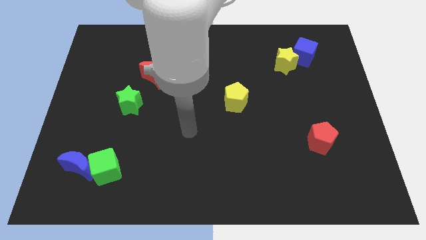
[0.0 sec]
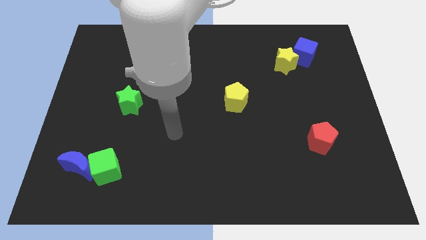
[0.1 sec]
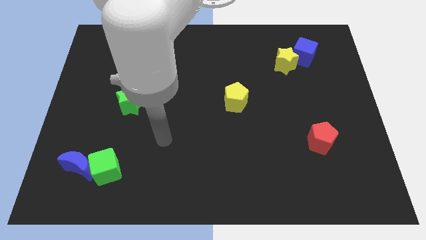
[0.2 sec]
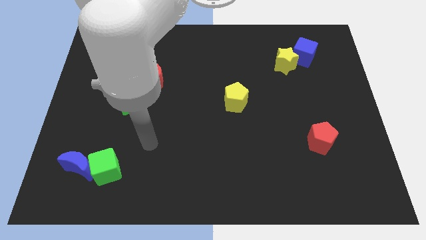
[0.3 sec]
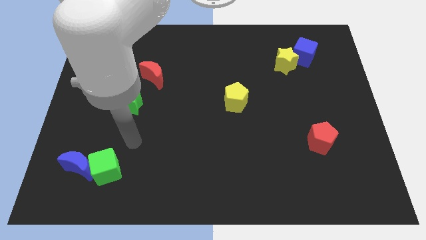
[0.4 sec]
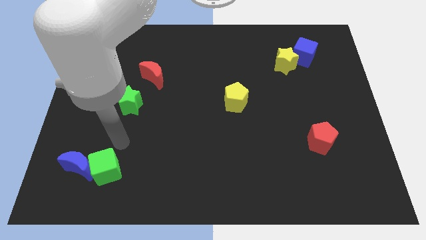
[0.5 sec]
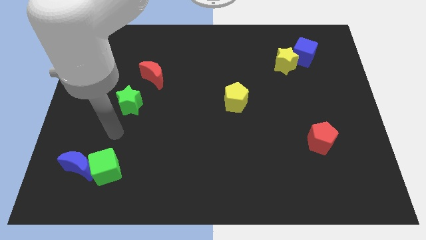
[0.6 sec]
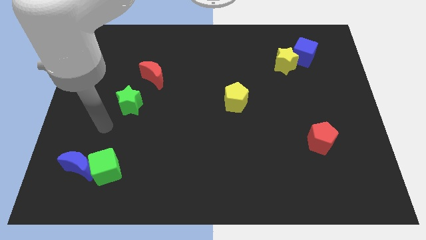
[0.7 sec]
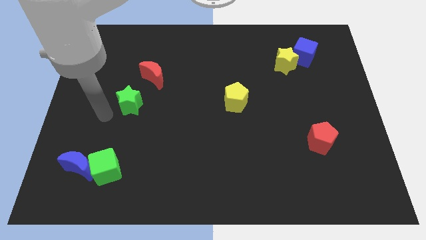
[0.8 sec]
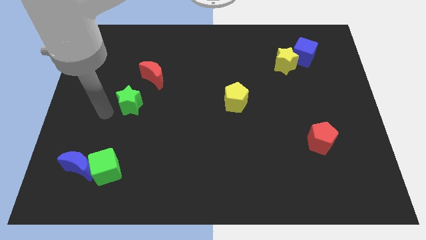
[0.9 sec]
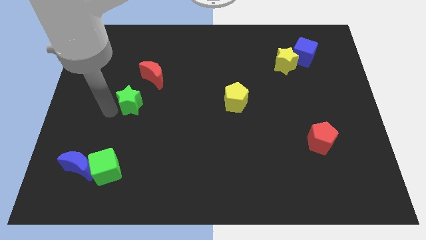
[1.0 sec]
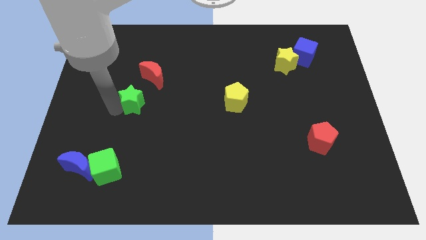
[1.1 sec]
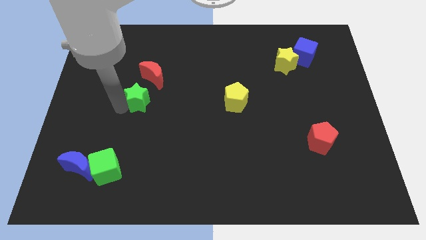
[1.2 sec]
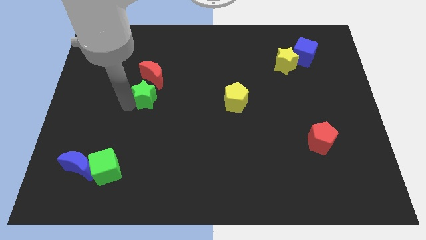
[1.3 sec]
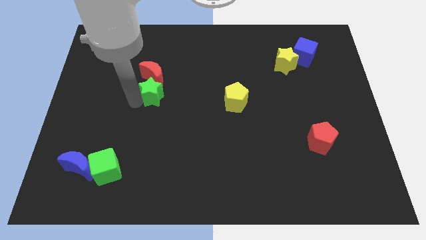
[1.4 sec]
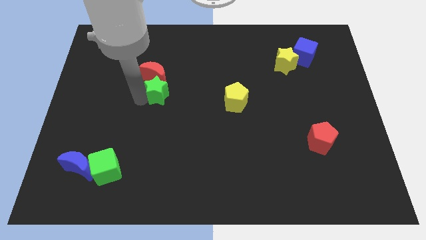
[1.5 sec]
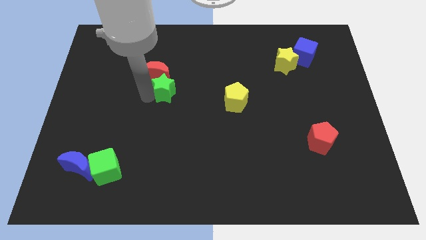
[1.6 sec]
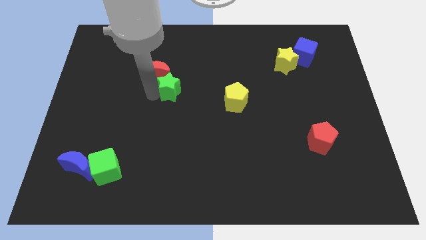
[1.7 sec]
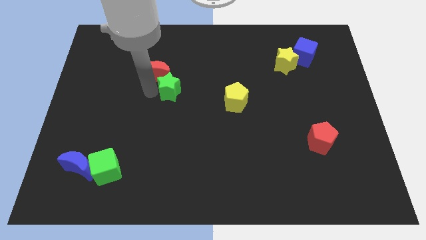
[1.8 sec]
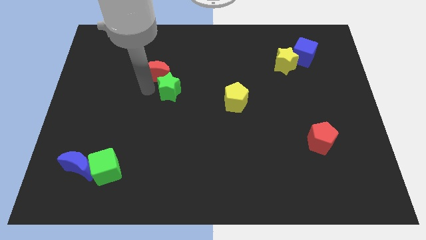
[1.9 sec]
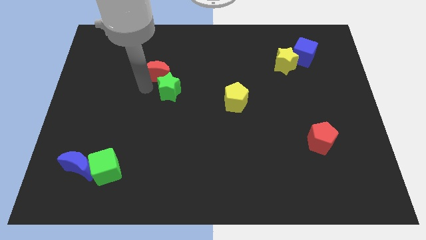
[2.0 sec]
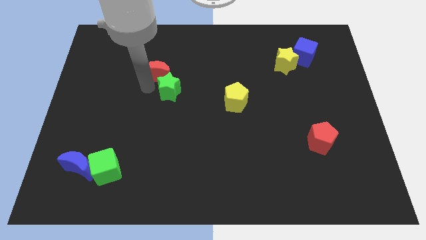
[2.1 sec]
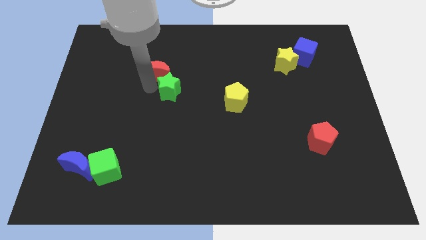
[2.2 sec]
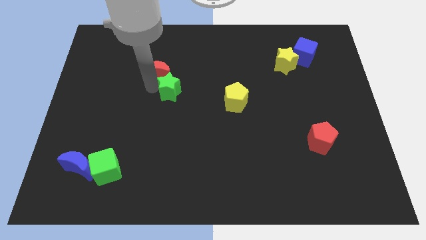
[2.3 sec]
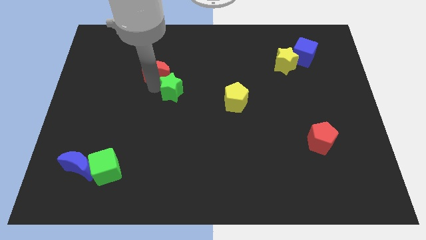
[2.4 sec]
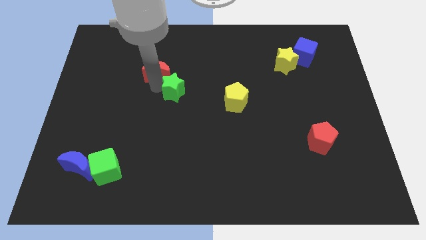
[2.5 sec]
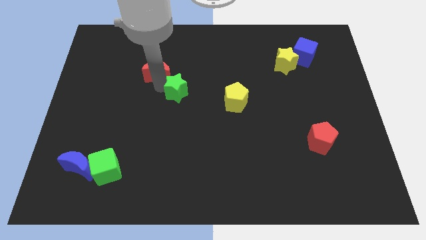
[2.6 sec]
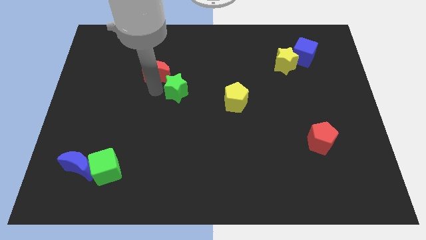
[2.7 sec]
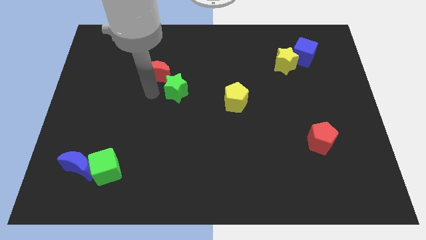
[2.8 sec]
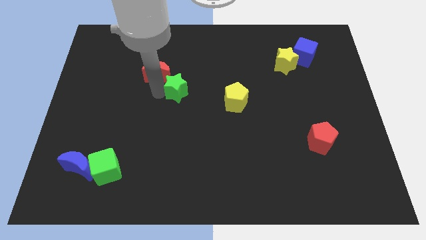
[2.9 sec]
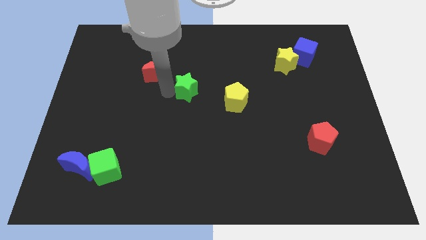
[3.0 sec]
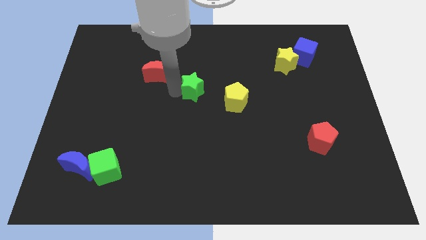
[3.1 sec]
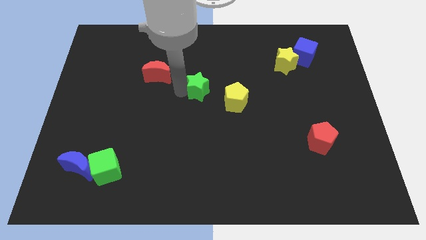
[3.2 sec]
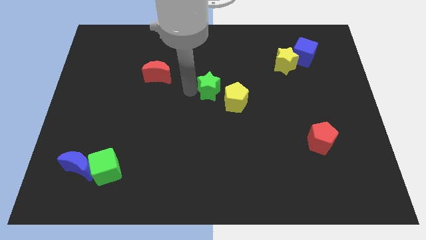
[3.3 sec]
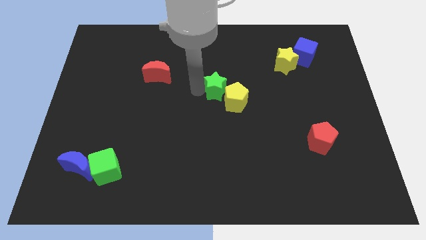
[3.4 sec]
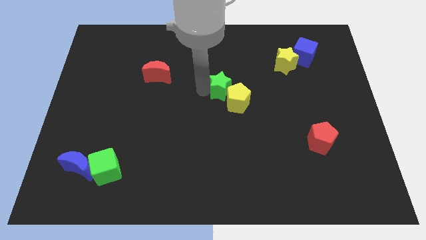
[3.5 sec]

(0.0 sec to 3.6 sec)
slide the green star right

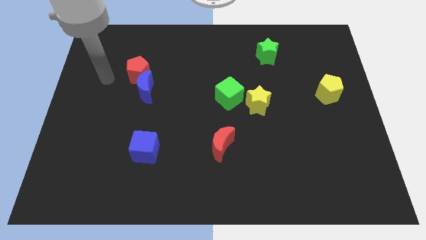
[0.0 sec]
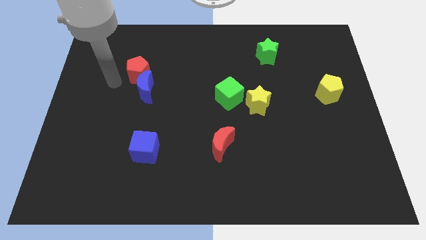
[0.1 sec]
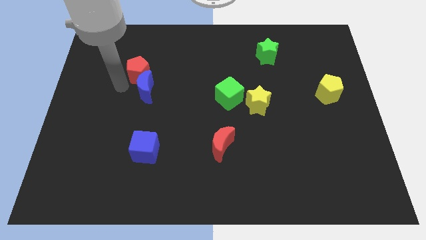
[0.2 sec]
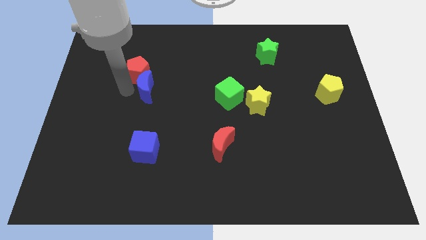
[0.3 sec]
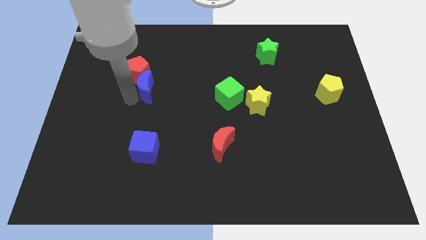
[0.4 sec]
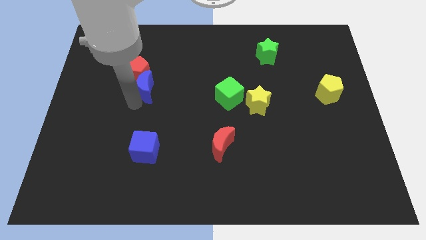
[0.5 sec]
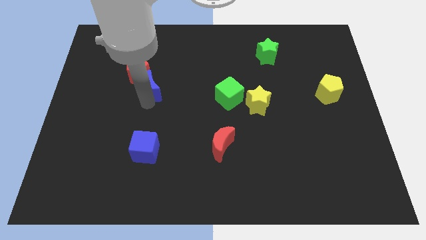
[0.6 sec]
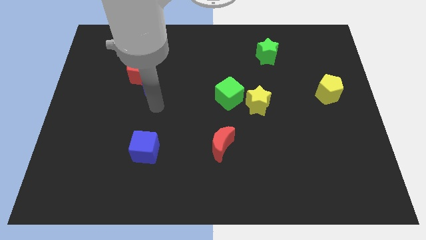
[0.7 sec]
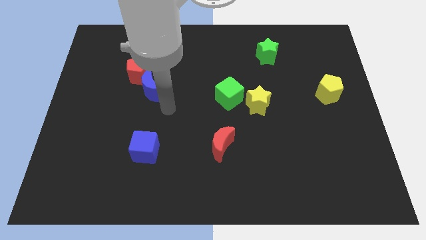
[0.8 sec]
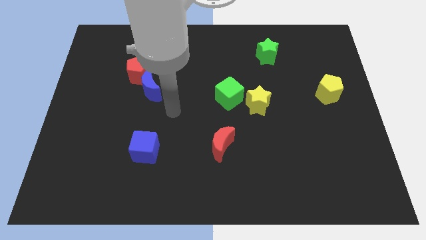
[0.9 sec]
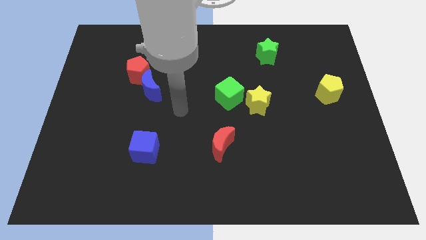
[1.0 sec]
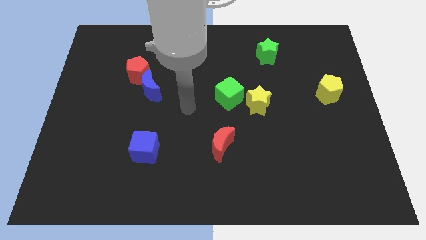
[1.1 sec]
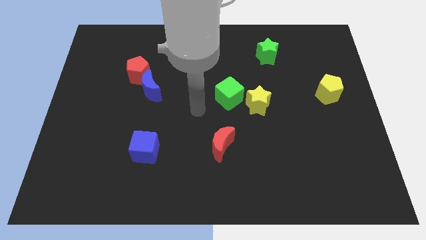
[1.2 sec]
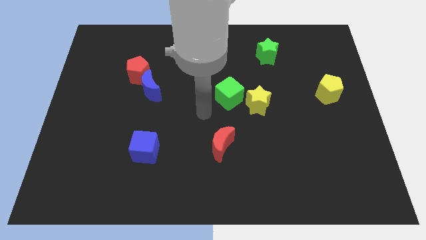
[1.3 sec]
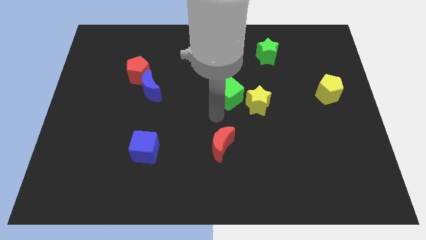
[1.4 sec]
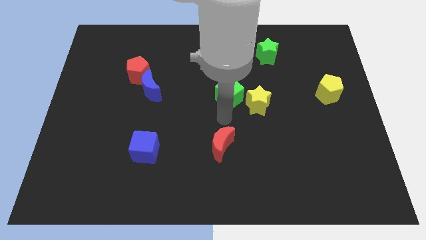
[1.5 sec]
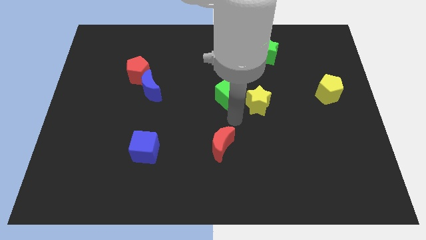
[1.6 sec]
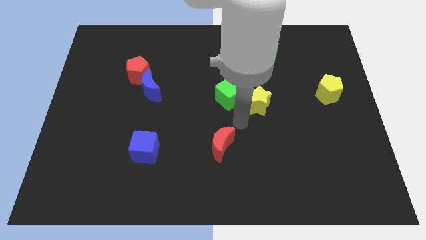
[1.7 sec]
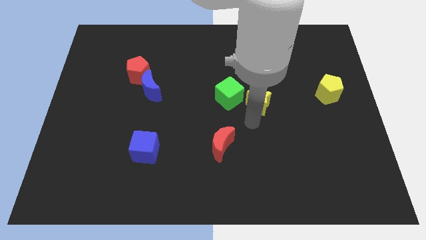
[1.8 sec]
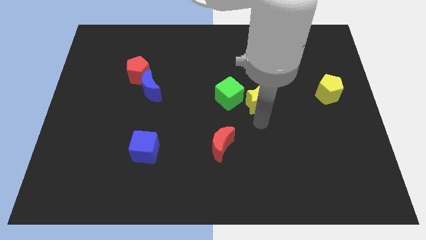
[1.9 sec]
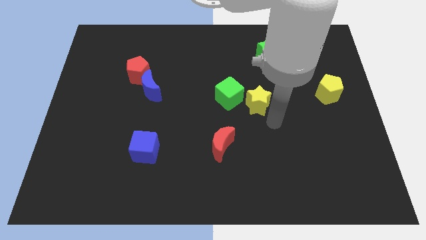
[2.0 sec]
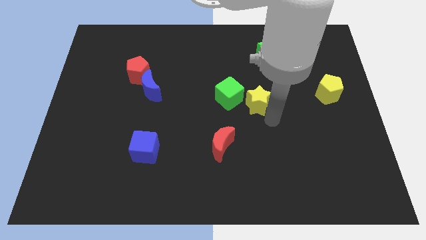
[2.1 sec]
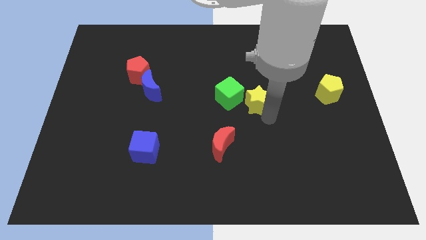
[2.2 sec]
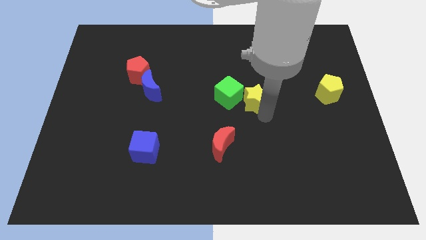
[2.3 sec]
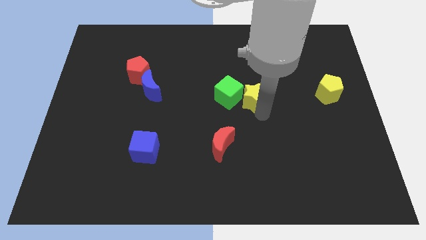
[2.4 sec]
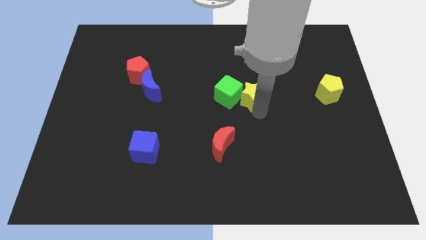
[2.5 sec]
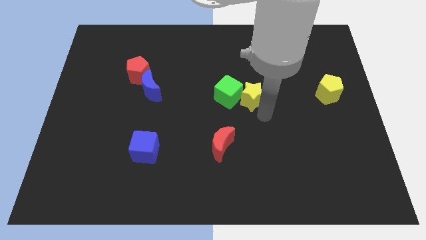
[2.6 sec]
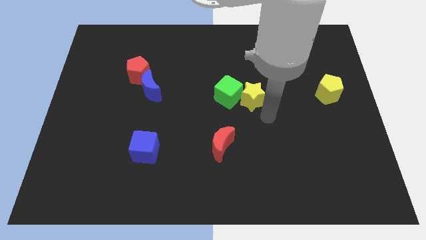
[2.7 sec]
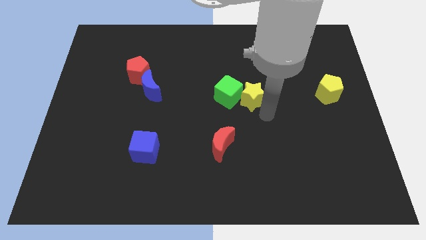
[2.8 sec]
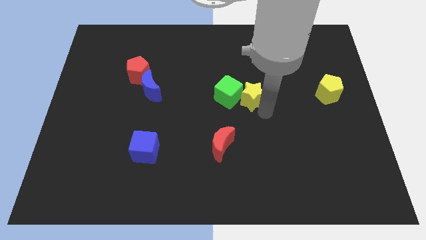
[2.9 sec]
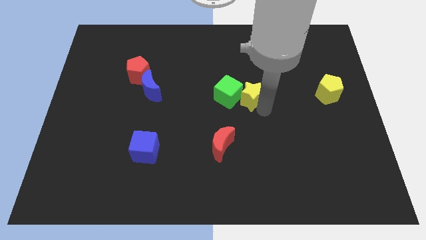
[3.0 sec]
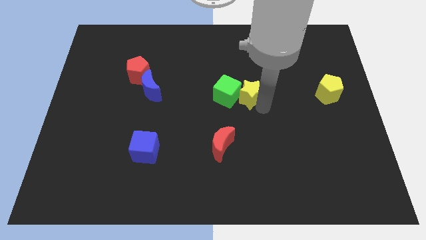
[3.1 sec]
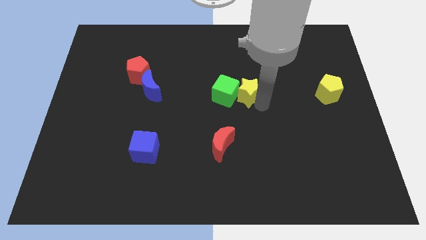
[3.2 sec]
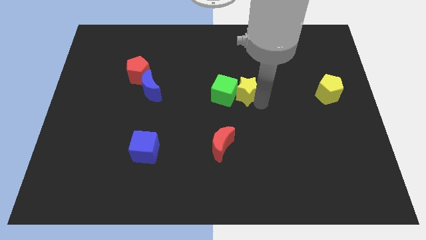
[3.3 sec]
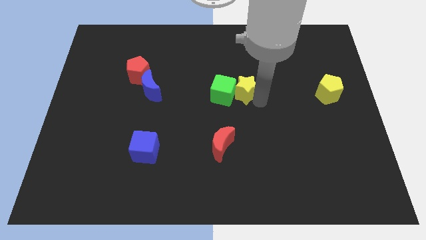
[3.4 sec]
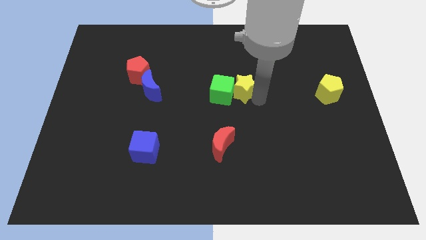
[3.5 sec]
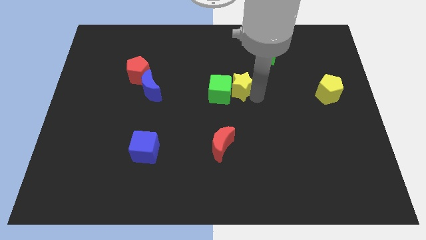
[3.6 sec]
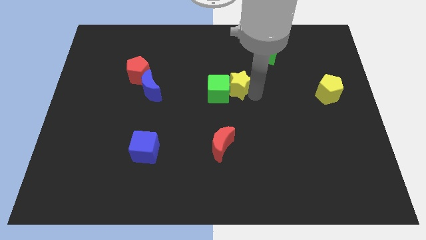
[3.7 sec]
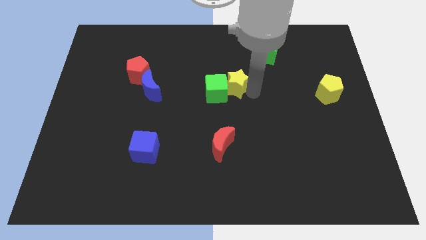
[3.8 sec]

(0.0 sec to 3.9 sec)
slightly push the yellow star diagonally up and left

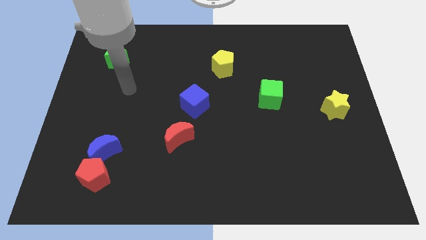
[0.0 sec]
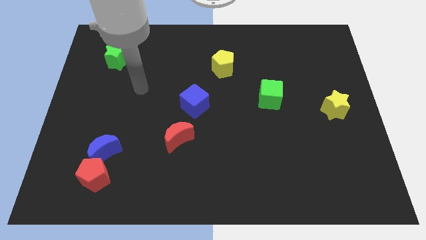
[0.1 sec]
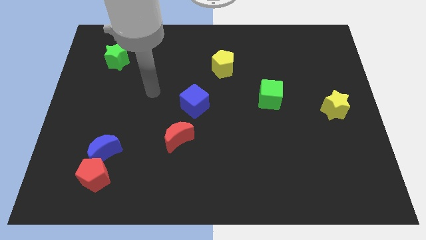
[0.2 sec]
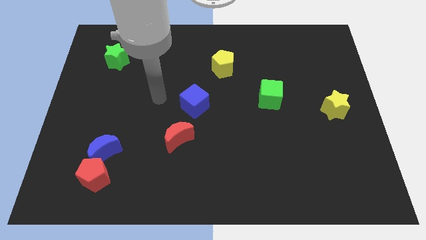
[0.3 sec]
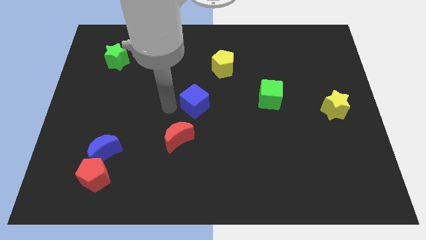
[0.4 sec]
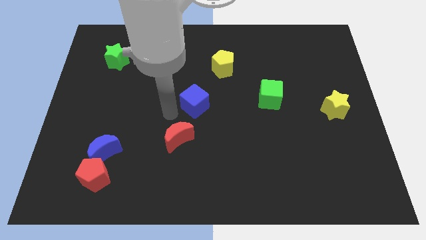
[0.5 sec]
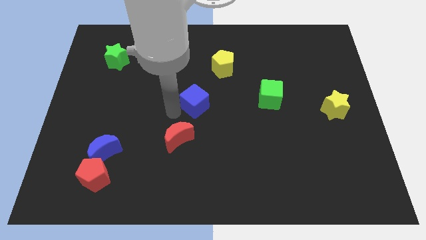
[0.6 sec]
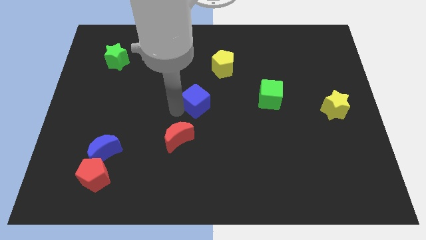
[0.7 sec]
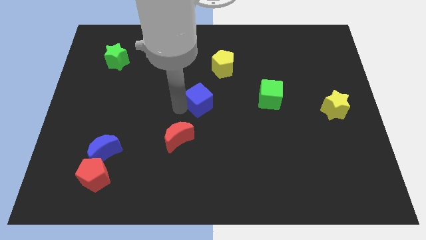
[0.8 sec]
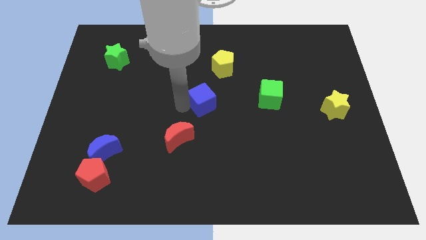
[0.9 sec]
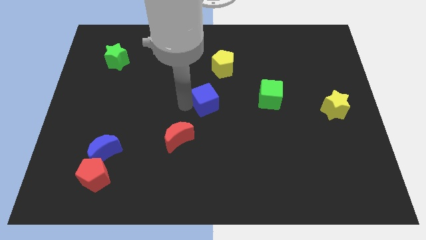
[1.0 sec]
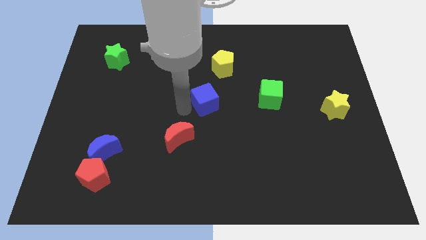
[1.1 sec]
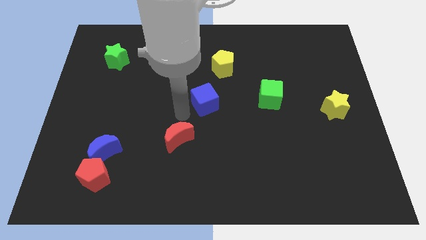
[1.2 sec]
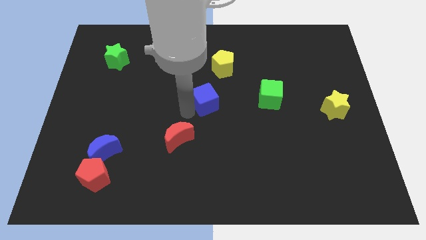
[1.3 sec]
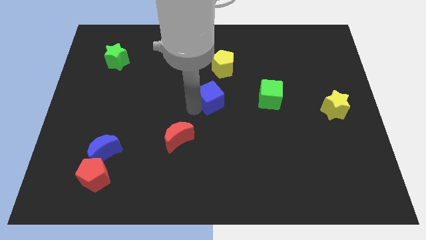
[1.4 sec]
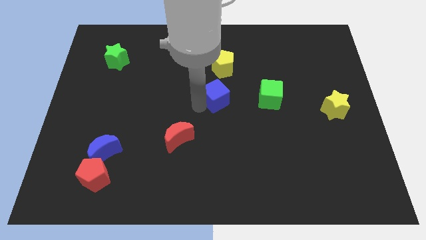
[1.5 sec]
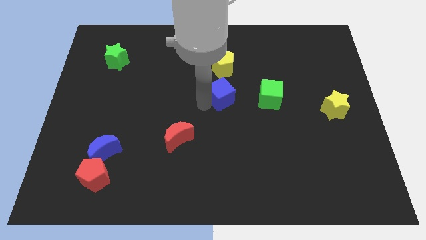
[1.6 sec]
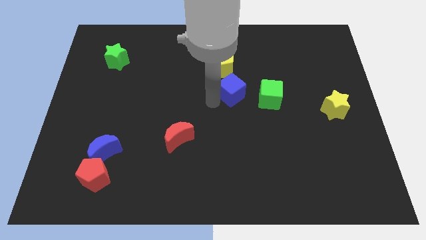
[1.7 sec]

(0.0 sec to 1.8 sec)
push the blue cube slightly up and right diagonally
